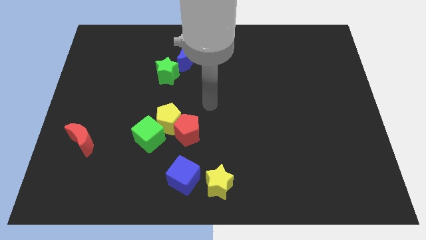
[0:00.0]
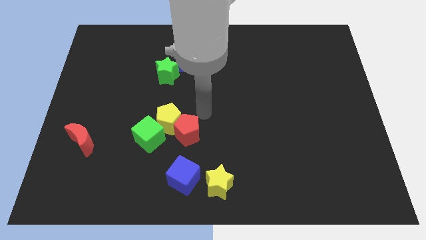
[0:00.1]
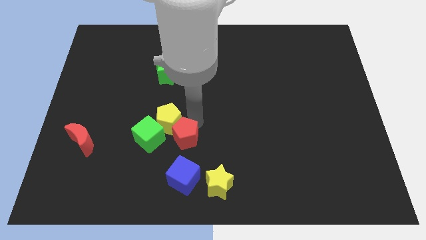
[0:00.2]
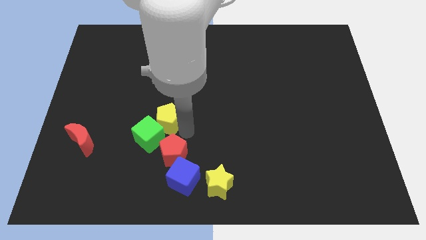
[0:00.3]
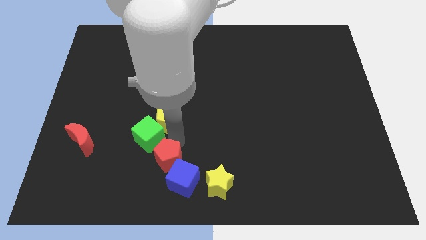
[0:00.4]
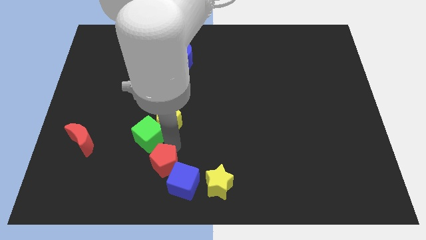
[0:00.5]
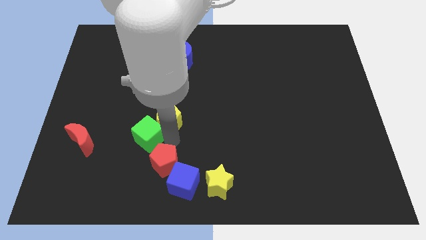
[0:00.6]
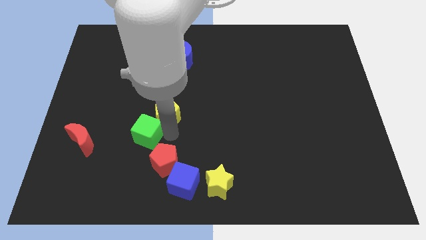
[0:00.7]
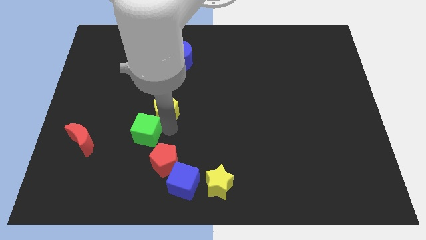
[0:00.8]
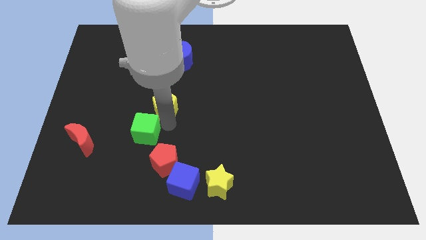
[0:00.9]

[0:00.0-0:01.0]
move the yellow pentagon away from the red pentagon and green cube

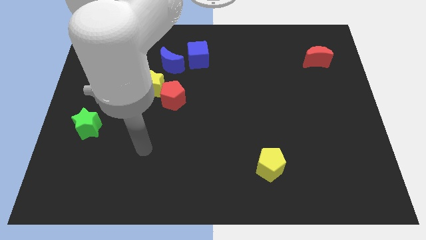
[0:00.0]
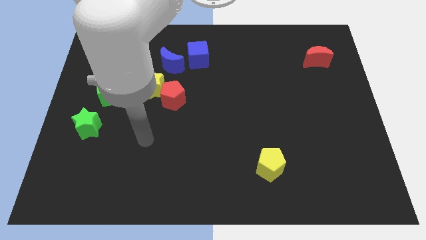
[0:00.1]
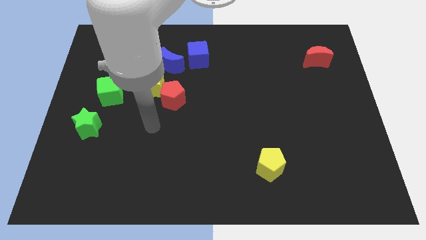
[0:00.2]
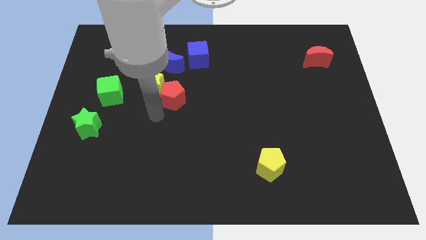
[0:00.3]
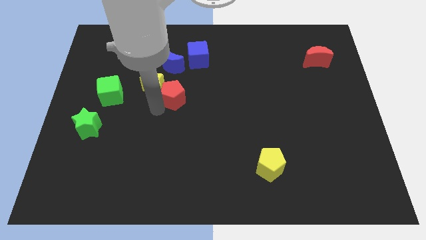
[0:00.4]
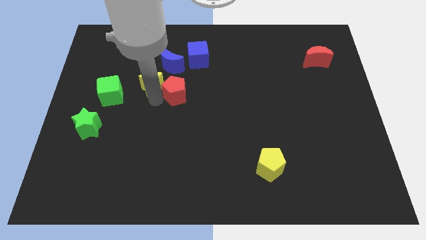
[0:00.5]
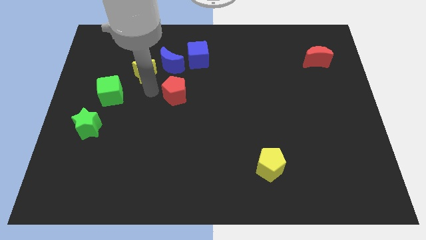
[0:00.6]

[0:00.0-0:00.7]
pull the red pentagon apart from the yellow star

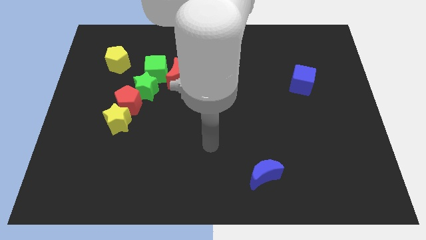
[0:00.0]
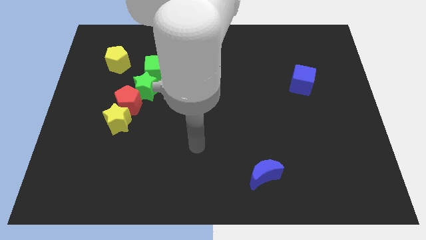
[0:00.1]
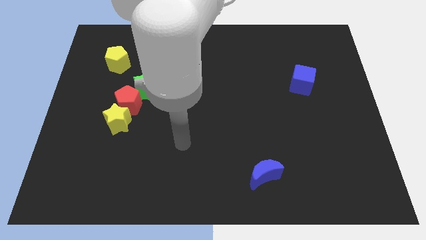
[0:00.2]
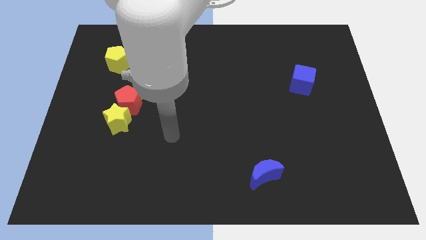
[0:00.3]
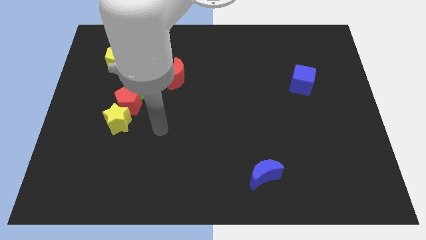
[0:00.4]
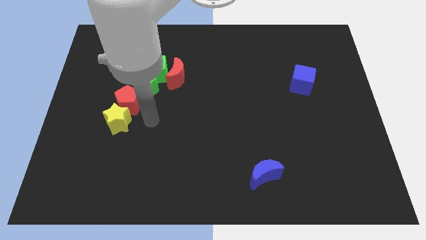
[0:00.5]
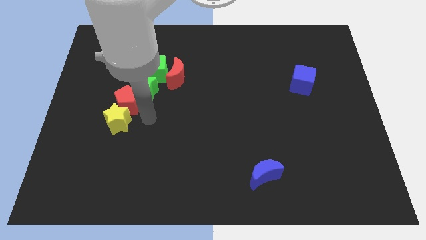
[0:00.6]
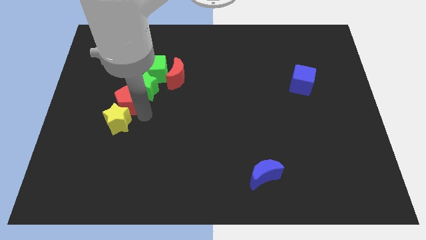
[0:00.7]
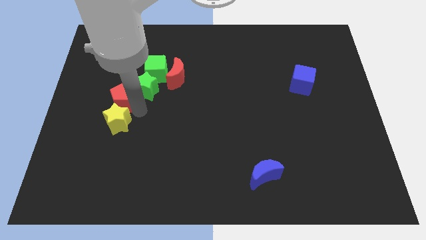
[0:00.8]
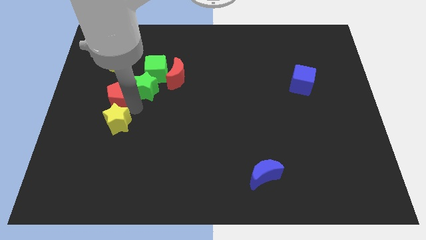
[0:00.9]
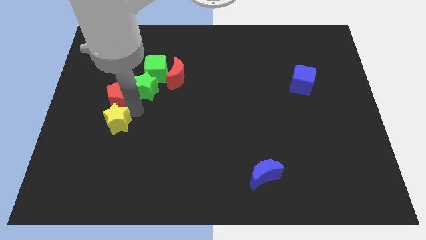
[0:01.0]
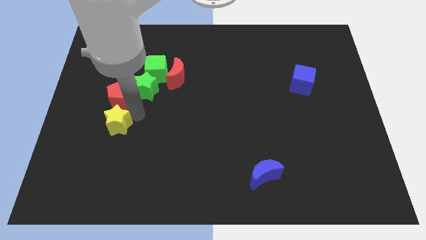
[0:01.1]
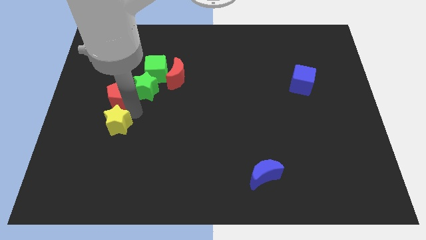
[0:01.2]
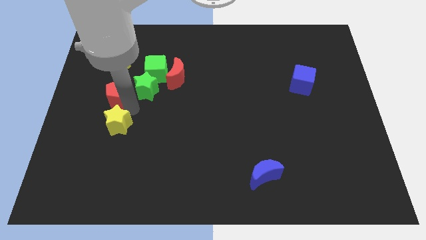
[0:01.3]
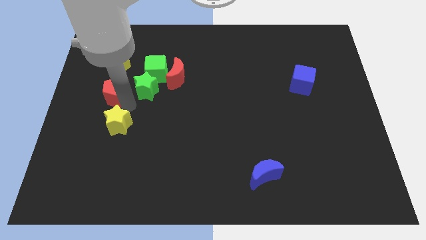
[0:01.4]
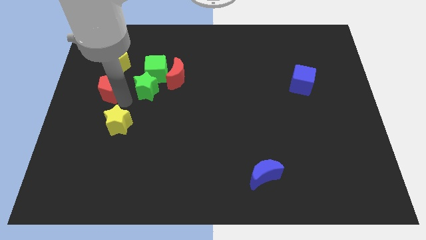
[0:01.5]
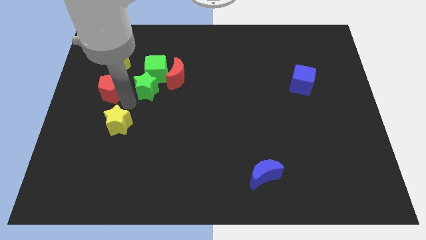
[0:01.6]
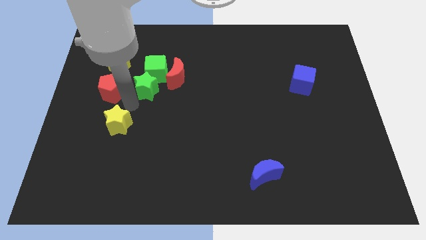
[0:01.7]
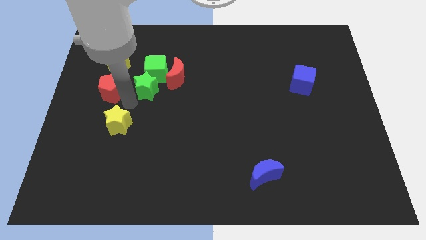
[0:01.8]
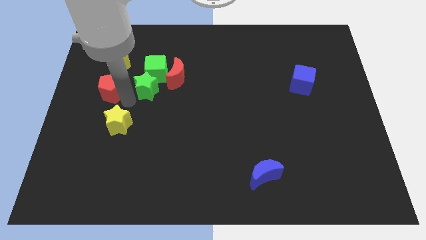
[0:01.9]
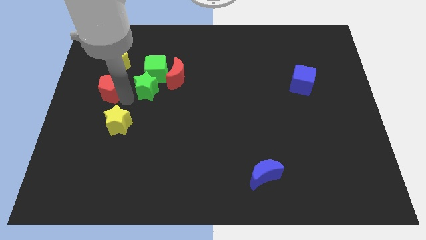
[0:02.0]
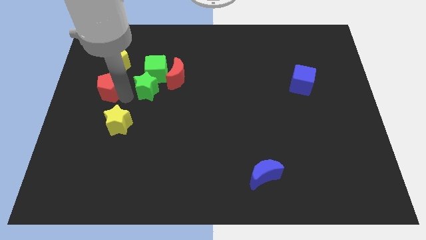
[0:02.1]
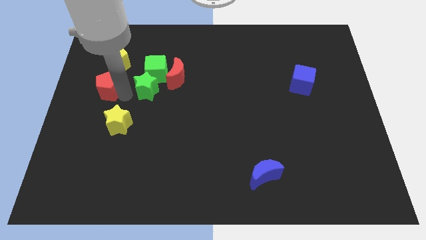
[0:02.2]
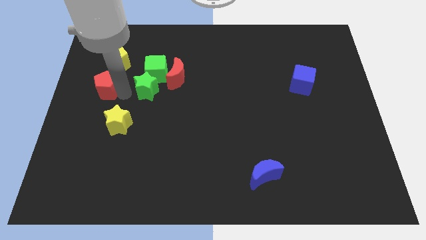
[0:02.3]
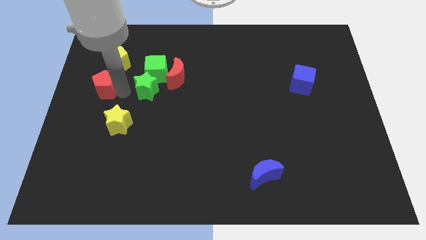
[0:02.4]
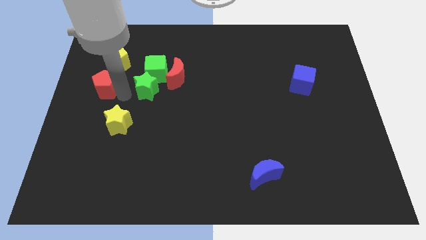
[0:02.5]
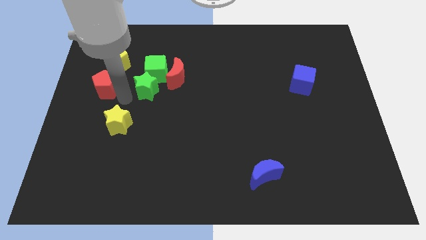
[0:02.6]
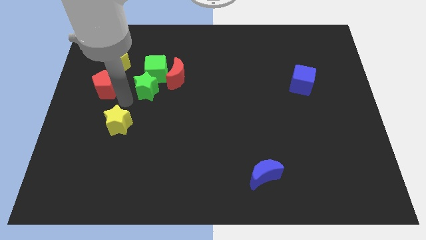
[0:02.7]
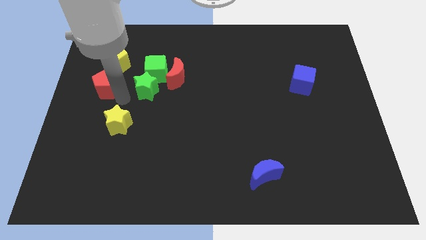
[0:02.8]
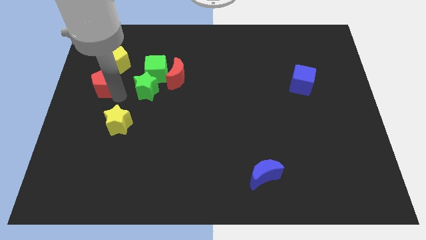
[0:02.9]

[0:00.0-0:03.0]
move the red pentagon away from the green star and yellow star

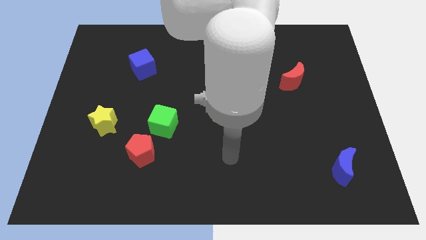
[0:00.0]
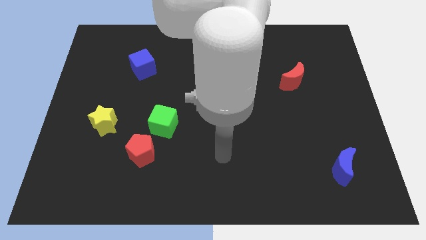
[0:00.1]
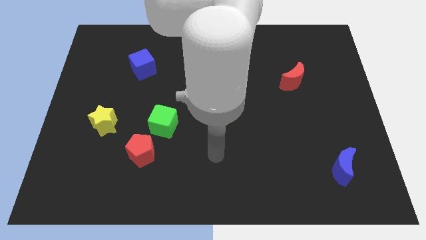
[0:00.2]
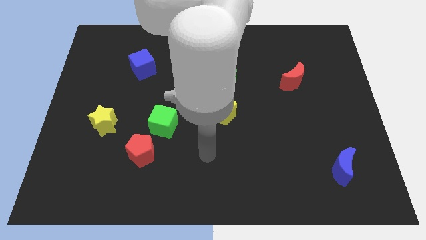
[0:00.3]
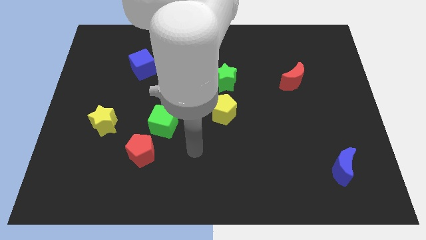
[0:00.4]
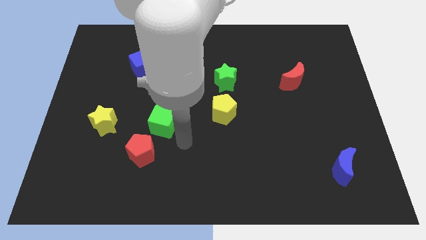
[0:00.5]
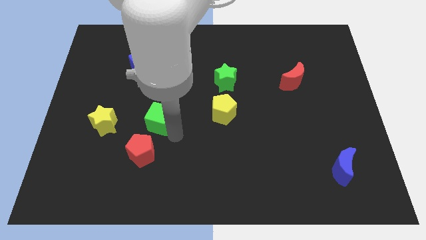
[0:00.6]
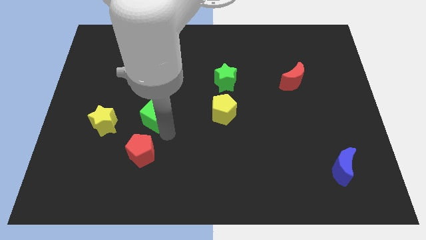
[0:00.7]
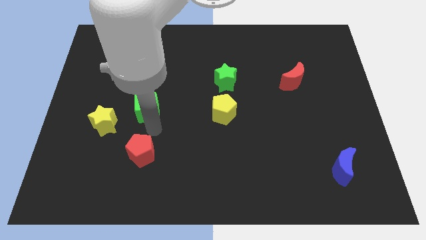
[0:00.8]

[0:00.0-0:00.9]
separate the red pentagon from the green cube

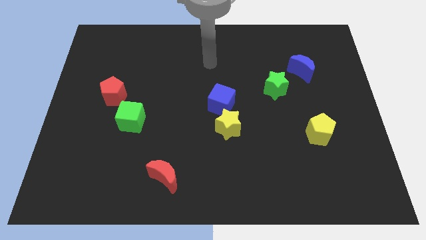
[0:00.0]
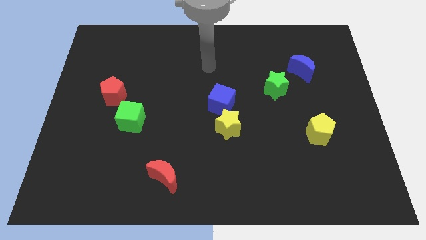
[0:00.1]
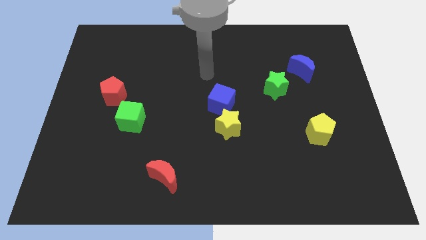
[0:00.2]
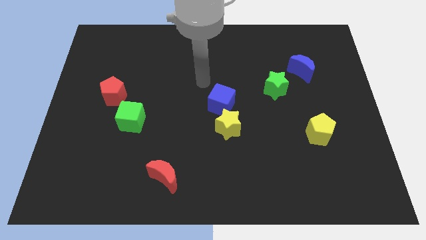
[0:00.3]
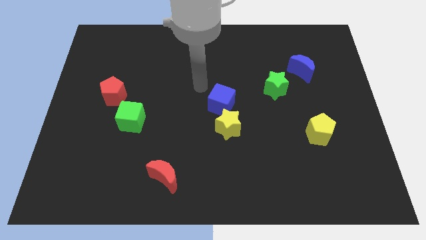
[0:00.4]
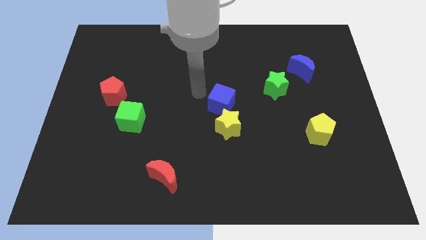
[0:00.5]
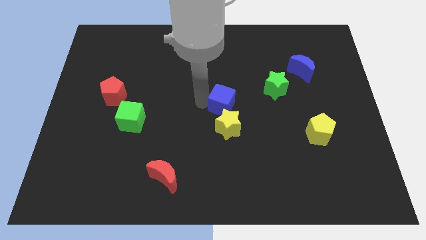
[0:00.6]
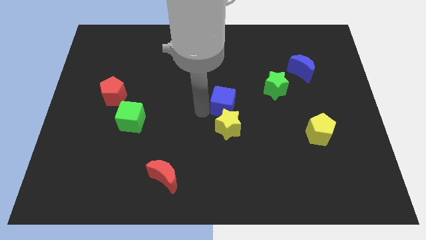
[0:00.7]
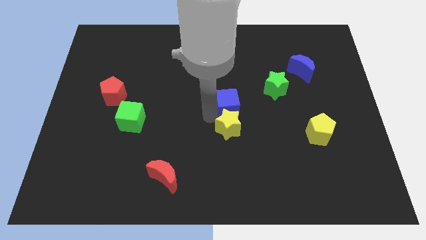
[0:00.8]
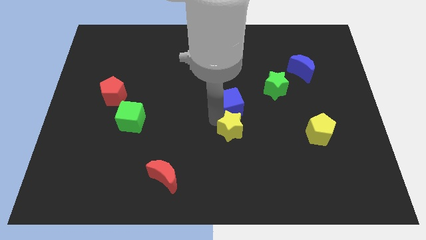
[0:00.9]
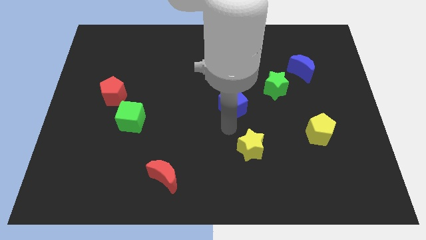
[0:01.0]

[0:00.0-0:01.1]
pull the blue cube apart from the yellow star

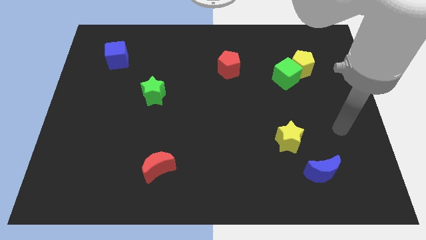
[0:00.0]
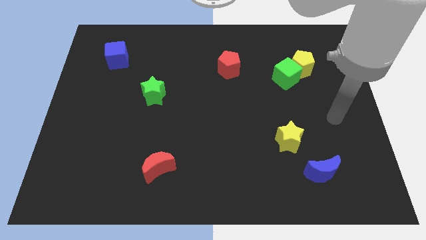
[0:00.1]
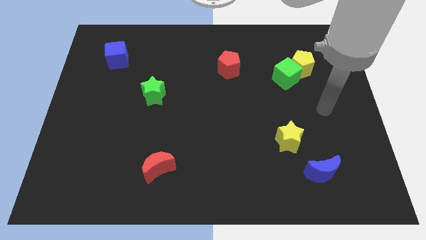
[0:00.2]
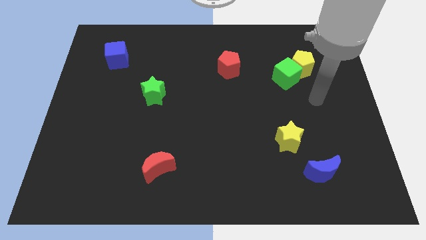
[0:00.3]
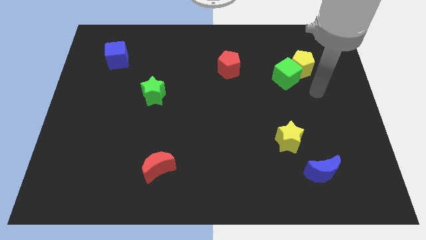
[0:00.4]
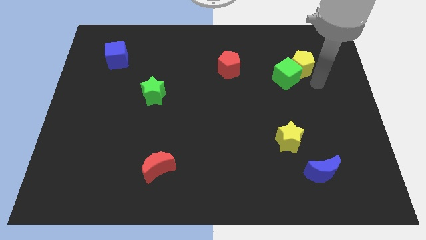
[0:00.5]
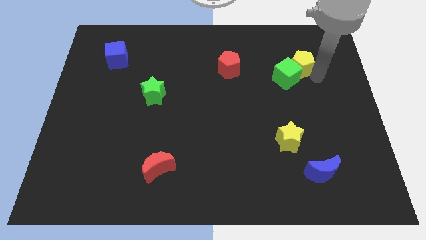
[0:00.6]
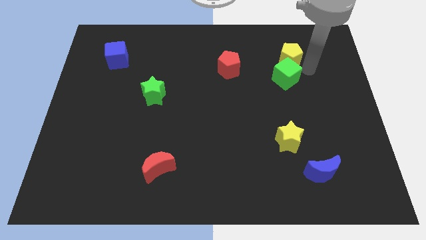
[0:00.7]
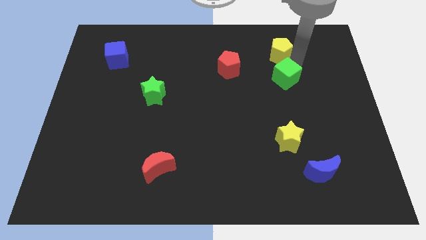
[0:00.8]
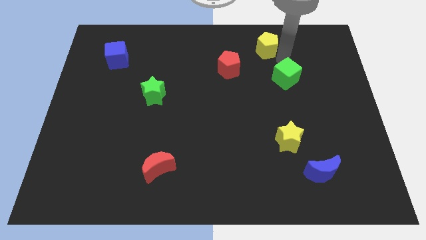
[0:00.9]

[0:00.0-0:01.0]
move the green cube away from the yellow pentagon

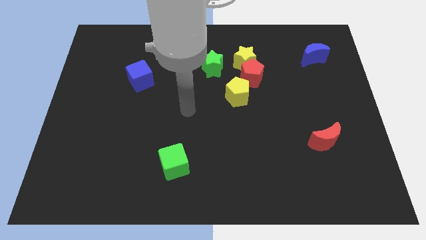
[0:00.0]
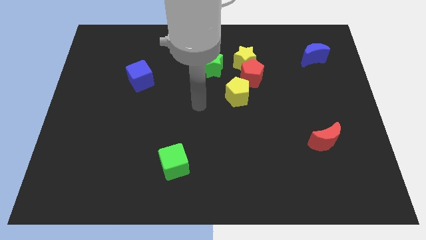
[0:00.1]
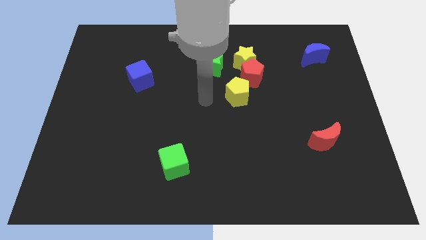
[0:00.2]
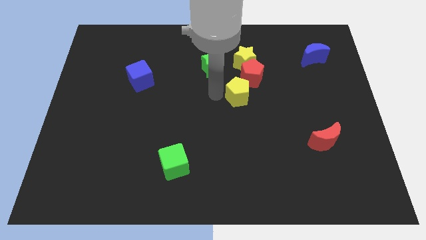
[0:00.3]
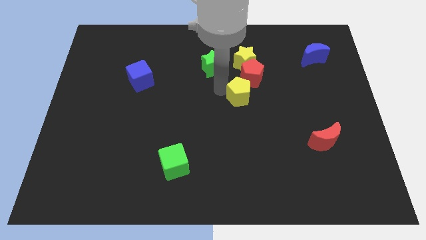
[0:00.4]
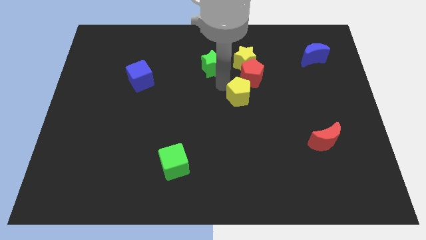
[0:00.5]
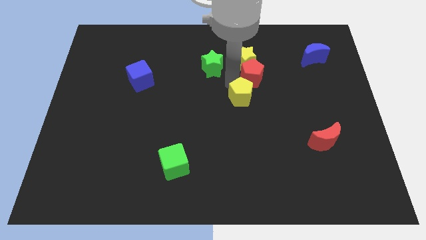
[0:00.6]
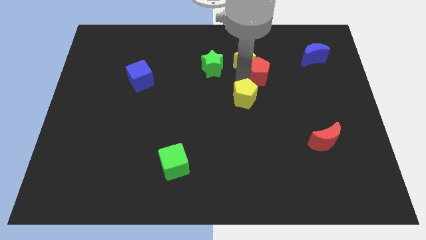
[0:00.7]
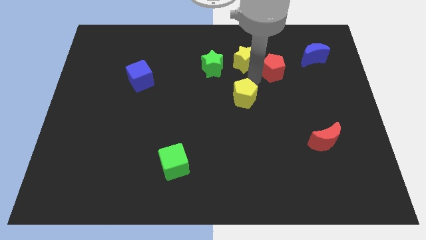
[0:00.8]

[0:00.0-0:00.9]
pull the yellow pentagon apart from the red pentagon

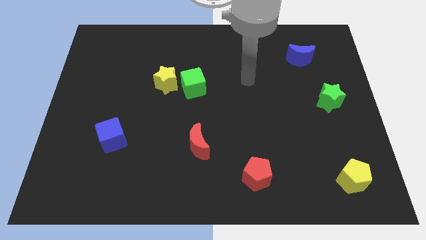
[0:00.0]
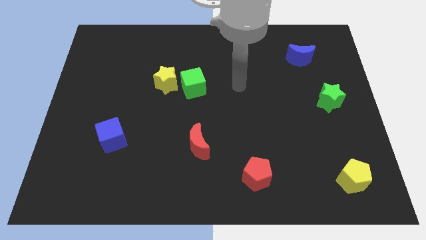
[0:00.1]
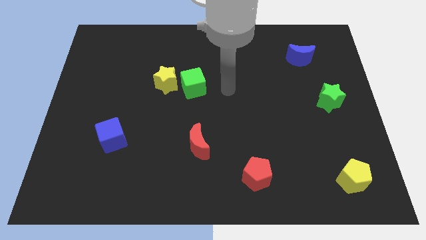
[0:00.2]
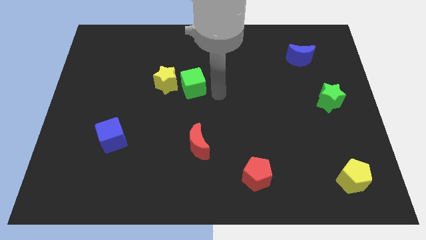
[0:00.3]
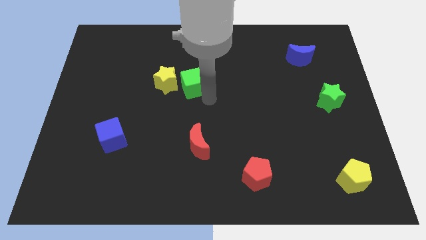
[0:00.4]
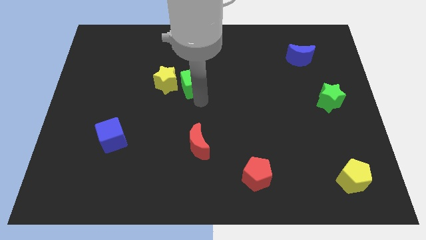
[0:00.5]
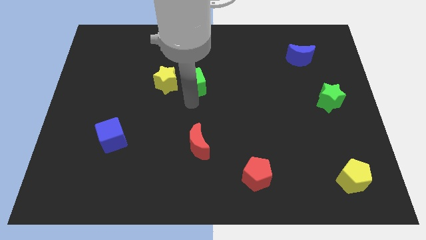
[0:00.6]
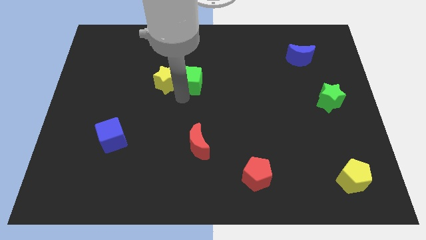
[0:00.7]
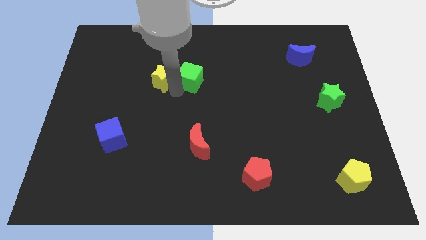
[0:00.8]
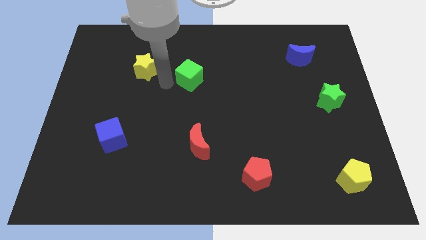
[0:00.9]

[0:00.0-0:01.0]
separate the green cube from the yellow star
